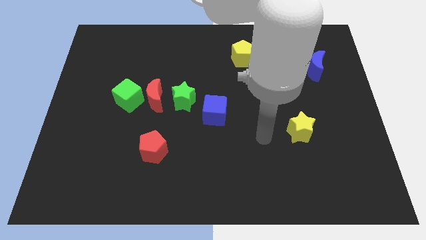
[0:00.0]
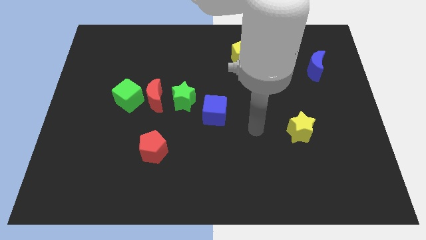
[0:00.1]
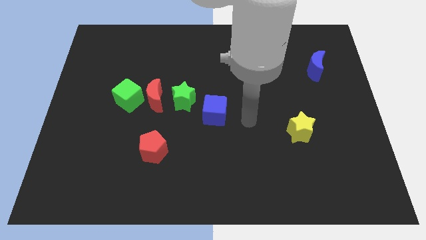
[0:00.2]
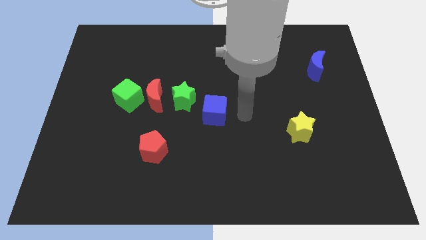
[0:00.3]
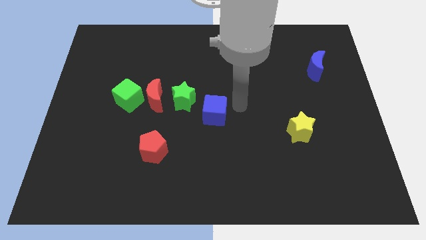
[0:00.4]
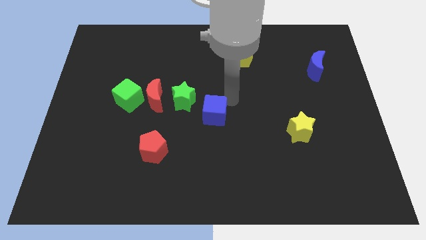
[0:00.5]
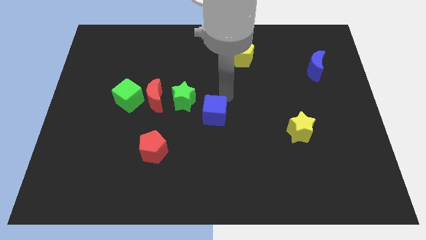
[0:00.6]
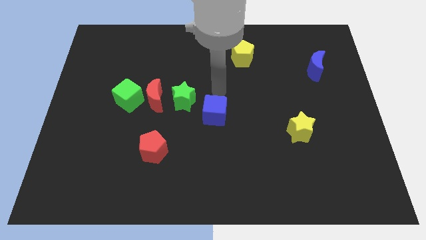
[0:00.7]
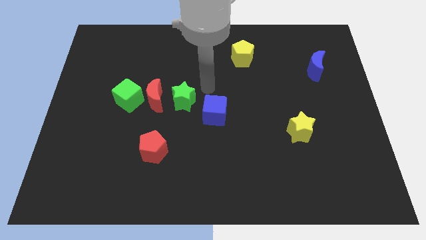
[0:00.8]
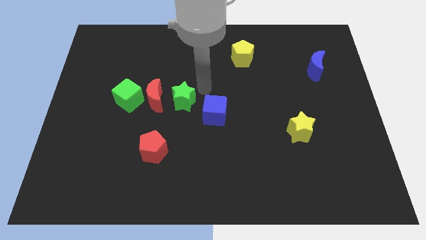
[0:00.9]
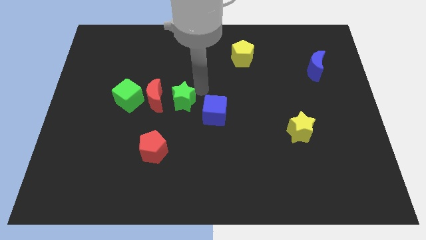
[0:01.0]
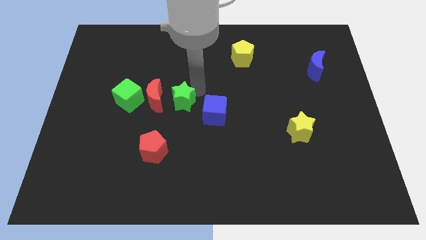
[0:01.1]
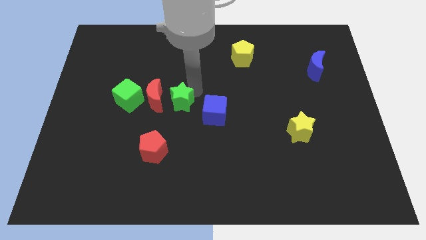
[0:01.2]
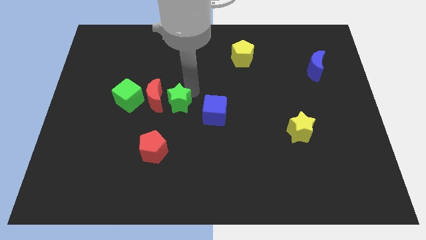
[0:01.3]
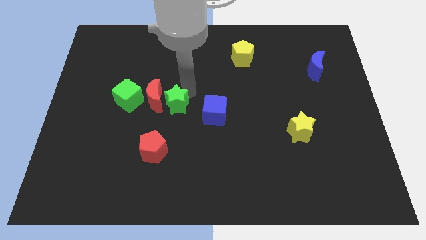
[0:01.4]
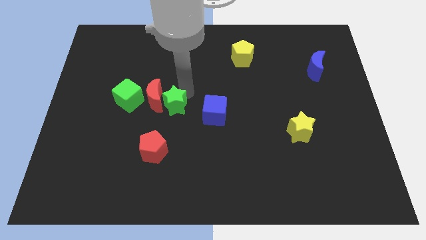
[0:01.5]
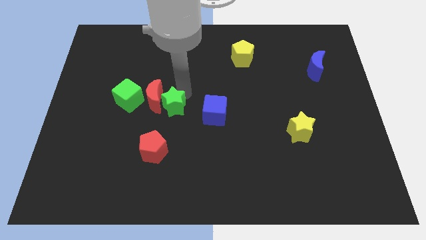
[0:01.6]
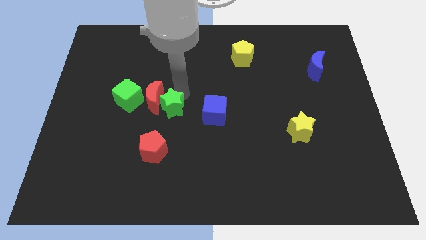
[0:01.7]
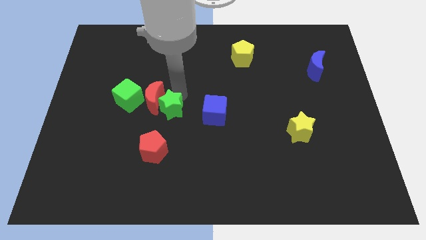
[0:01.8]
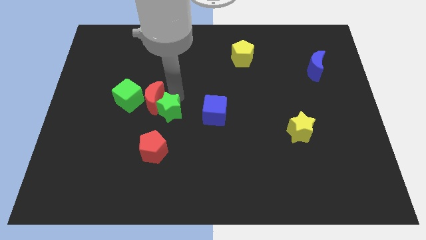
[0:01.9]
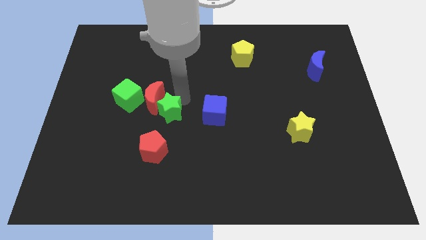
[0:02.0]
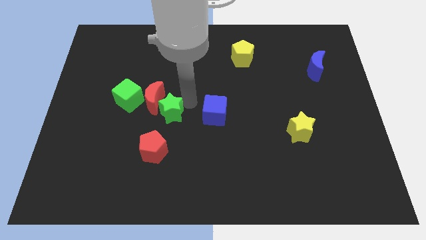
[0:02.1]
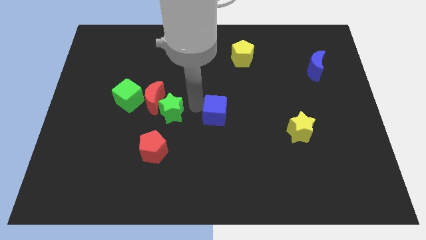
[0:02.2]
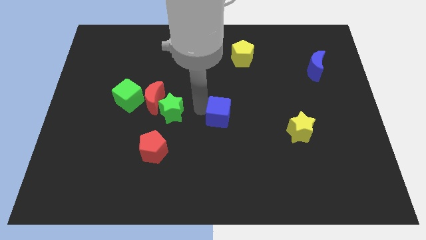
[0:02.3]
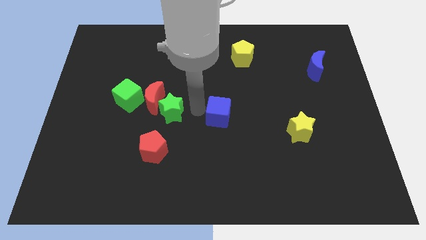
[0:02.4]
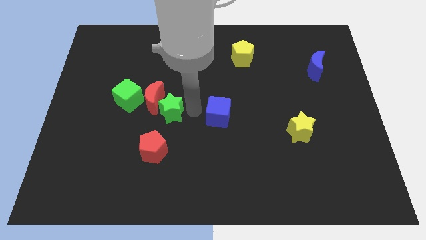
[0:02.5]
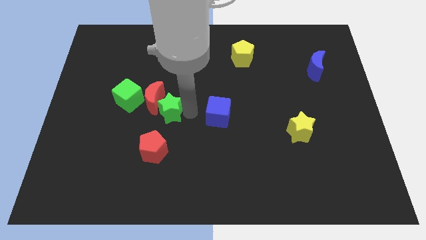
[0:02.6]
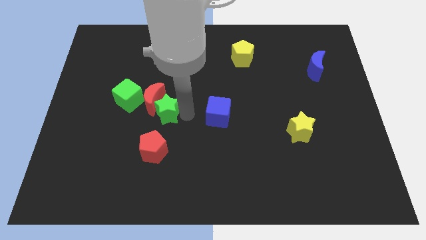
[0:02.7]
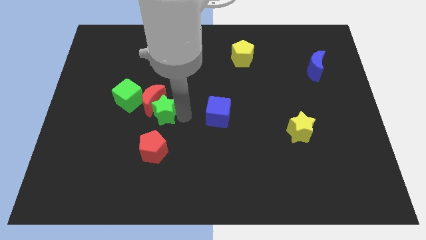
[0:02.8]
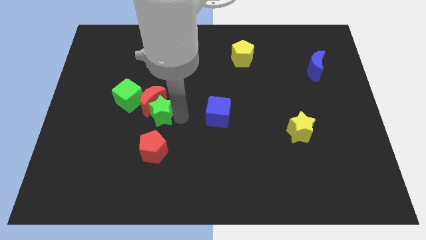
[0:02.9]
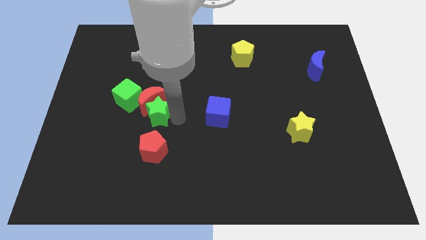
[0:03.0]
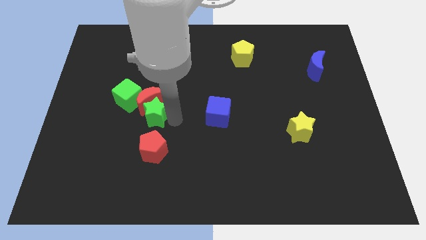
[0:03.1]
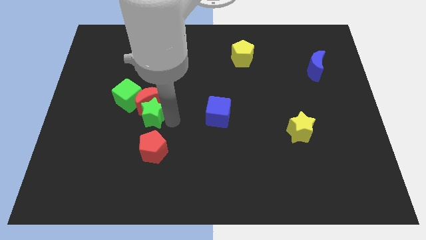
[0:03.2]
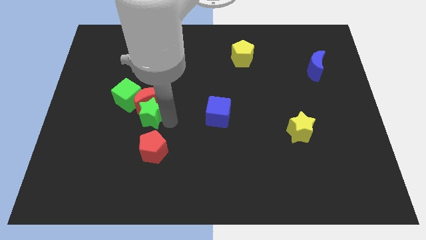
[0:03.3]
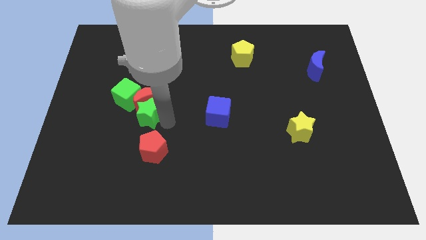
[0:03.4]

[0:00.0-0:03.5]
push the green star somewhat left

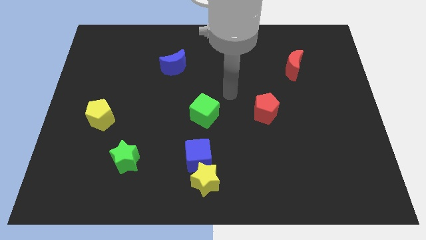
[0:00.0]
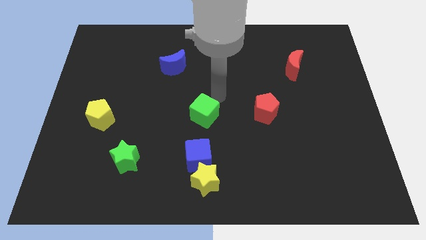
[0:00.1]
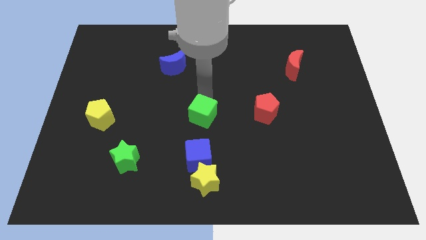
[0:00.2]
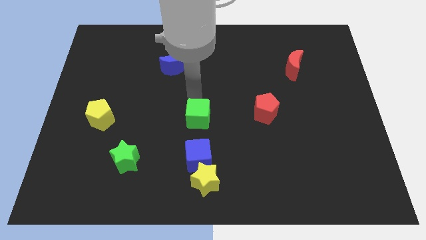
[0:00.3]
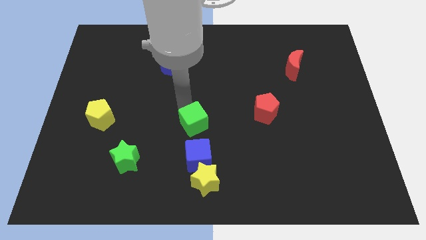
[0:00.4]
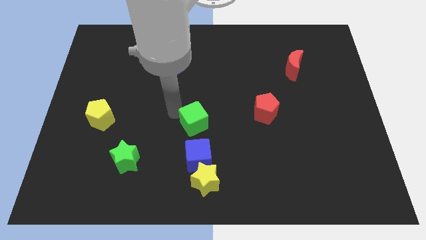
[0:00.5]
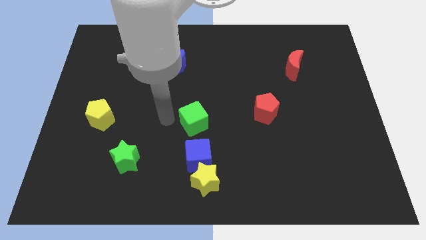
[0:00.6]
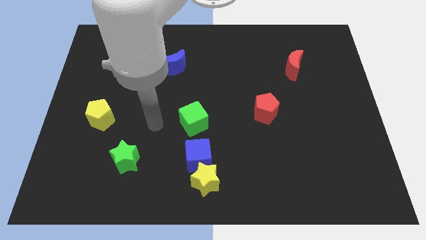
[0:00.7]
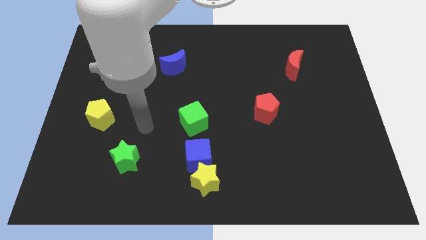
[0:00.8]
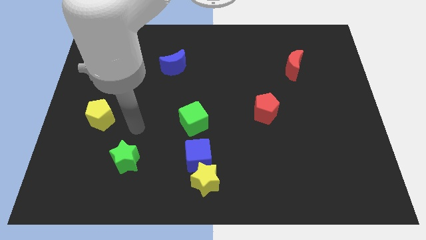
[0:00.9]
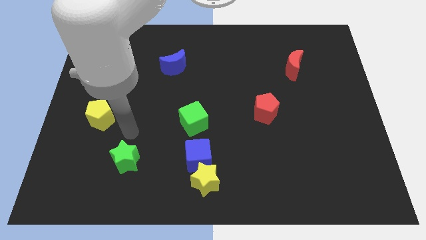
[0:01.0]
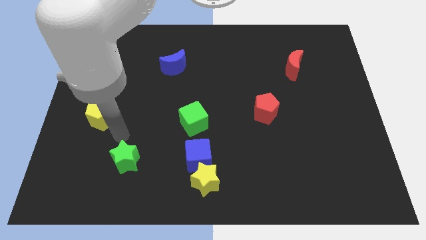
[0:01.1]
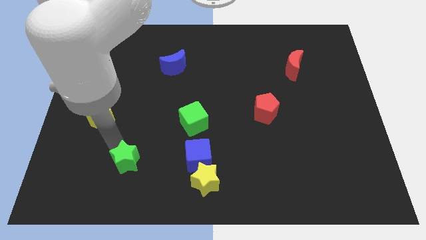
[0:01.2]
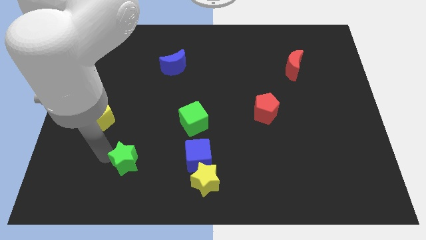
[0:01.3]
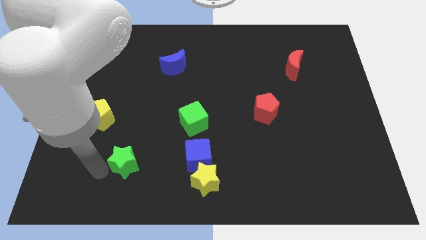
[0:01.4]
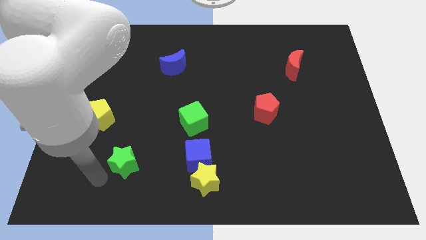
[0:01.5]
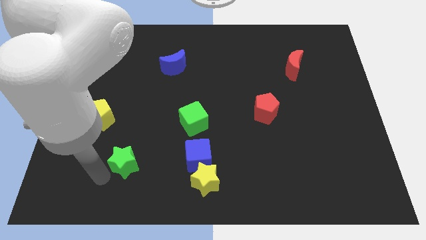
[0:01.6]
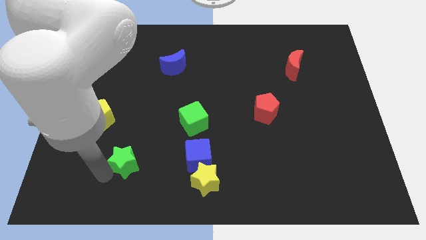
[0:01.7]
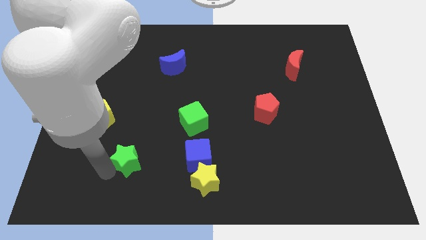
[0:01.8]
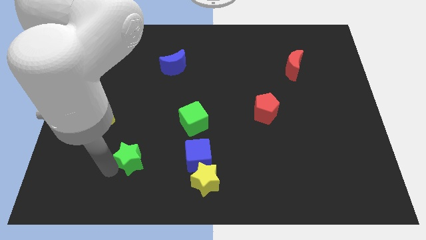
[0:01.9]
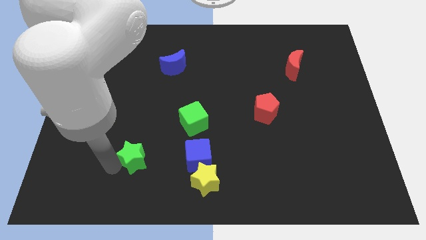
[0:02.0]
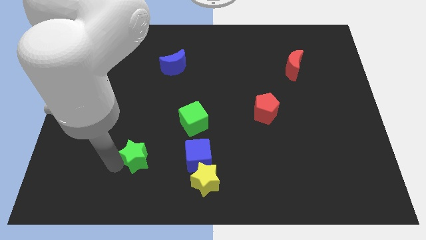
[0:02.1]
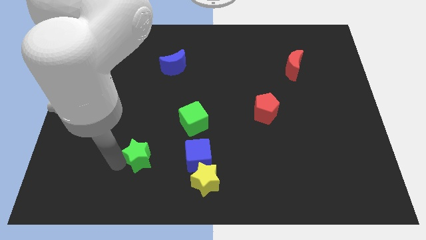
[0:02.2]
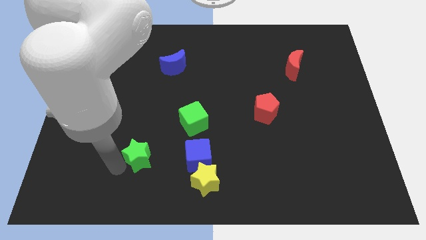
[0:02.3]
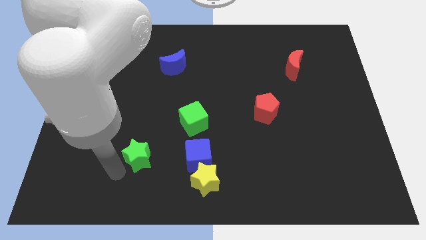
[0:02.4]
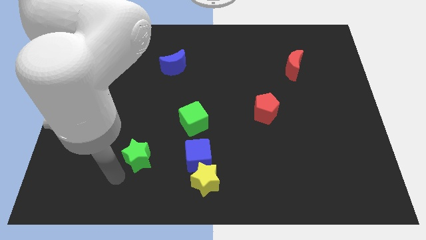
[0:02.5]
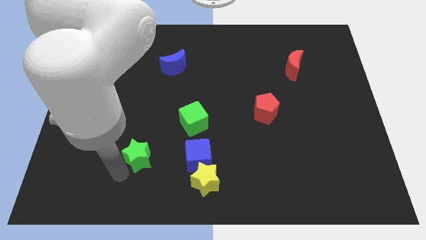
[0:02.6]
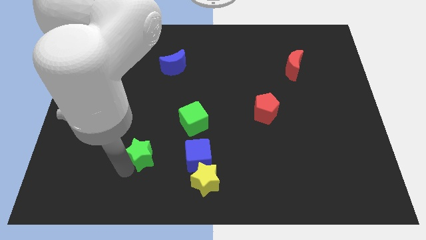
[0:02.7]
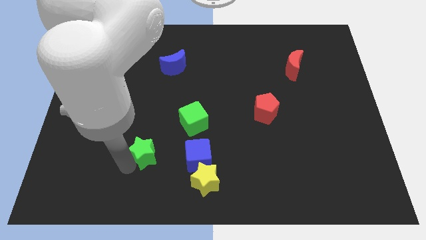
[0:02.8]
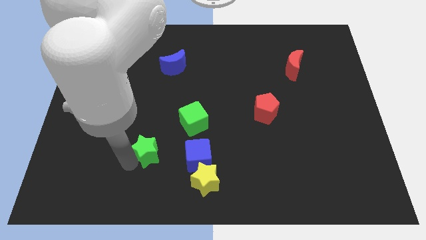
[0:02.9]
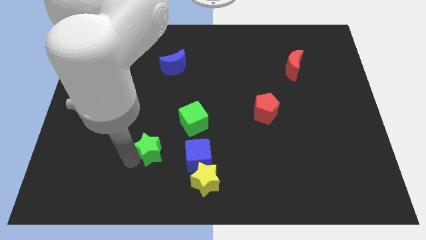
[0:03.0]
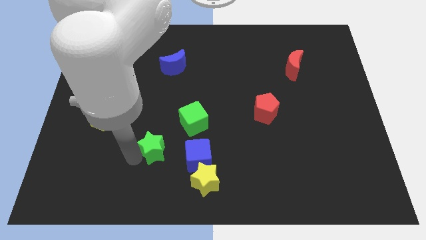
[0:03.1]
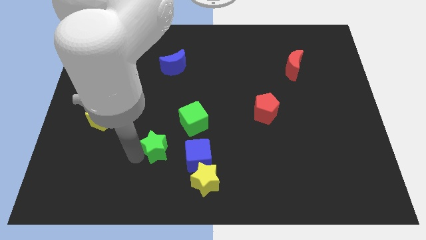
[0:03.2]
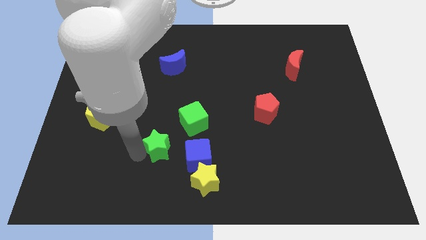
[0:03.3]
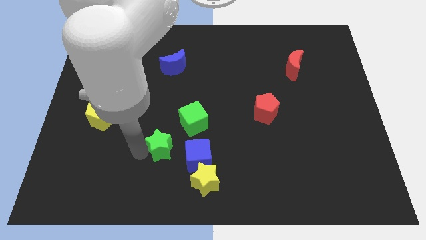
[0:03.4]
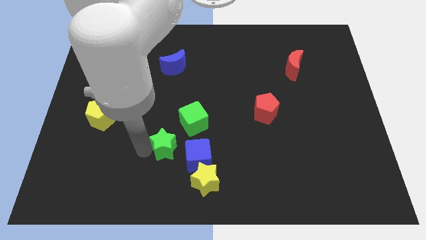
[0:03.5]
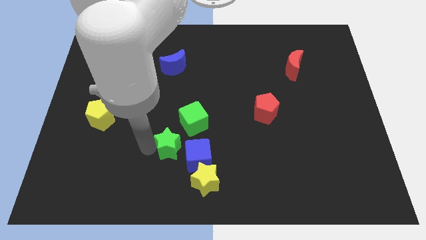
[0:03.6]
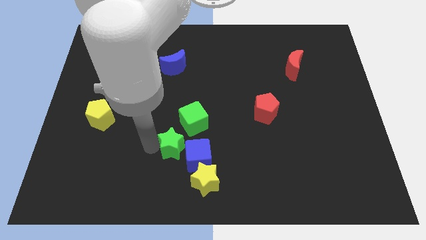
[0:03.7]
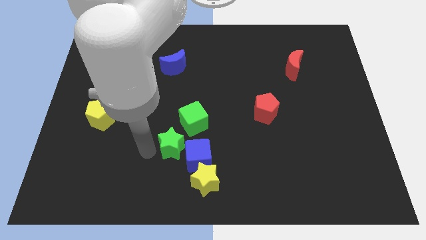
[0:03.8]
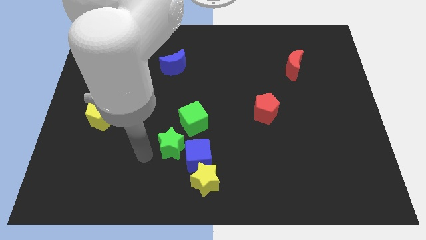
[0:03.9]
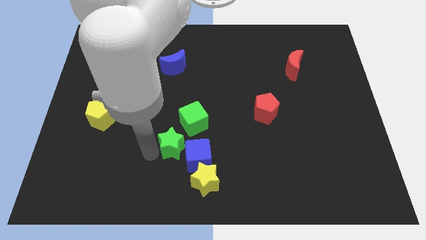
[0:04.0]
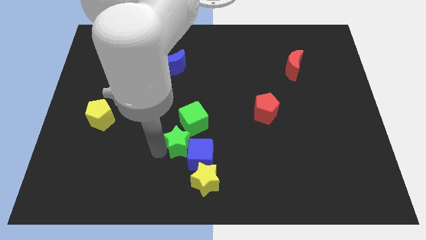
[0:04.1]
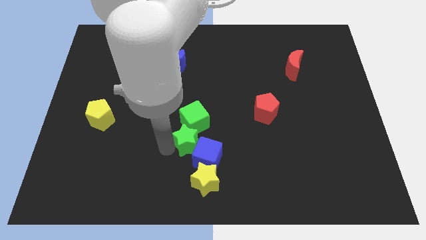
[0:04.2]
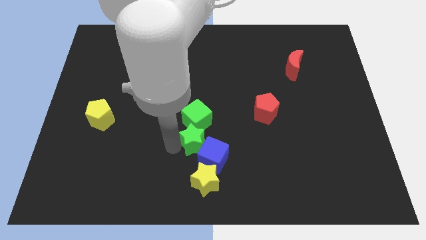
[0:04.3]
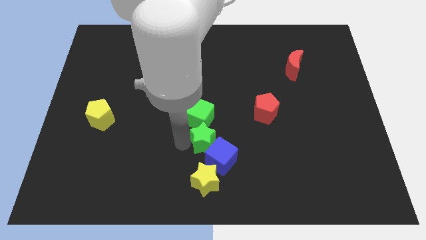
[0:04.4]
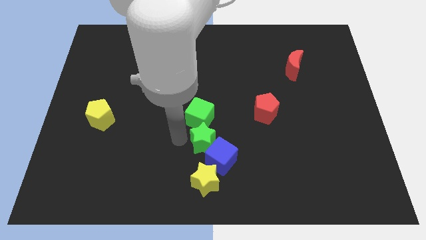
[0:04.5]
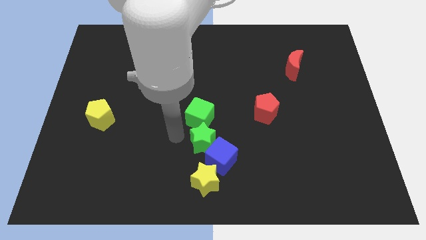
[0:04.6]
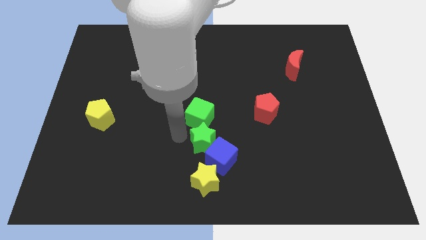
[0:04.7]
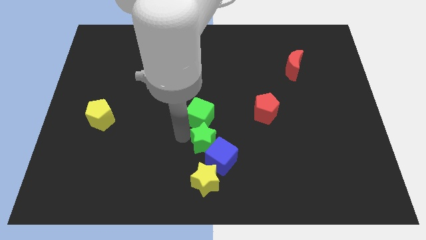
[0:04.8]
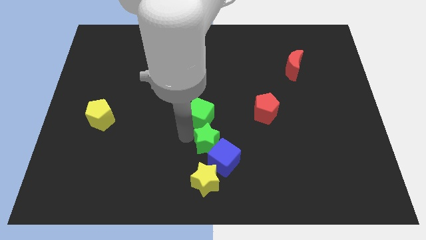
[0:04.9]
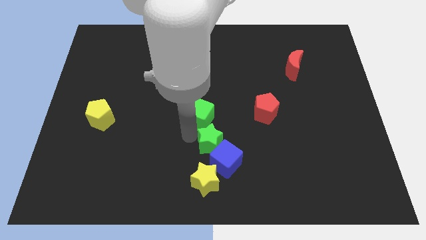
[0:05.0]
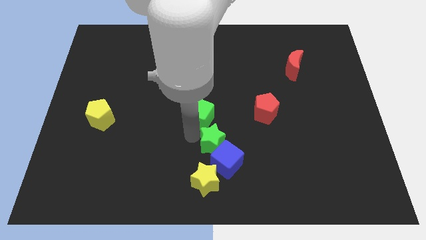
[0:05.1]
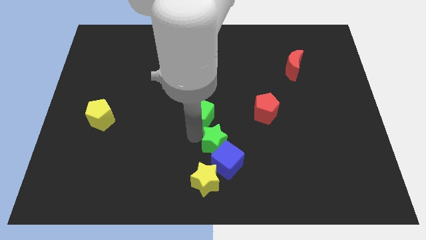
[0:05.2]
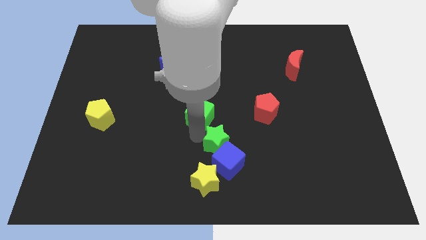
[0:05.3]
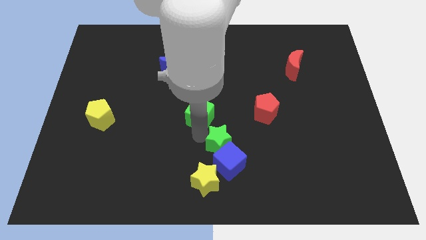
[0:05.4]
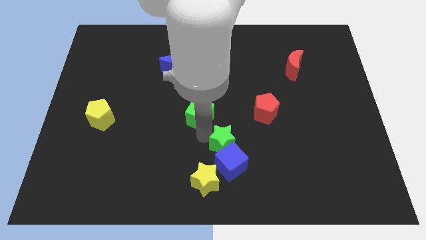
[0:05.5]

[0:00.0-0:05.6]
move the green star right
